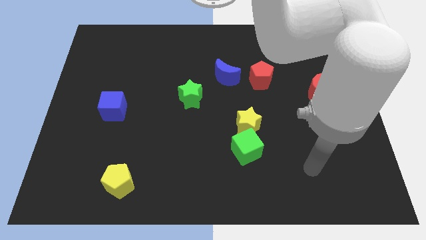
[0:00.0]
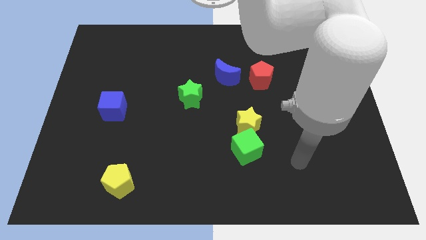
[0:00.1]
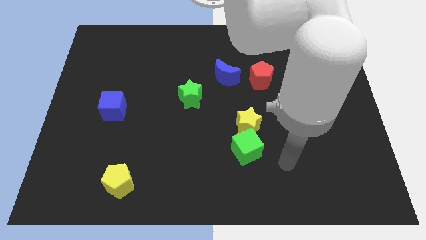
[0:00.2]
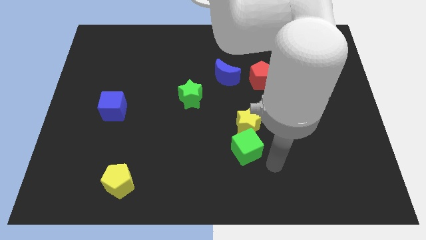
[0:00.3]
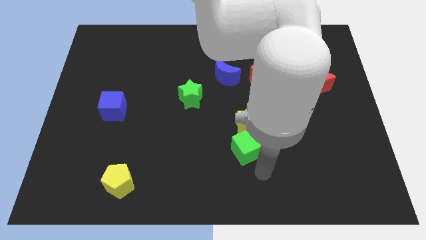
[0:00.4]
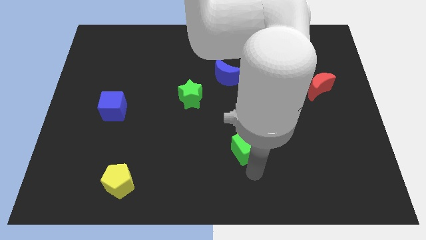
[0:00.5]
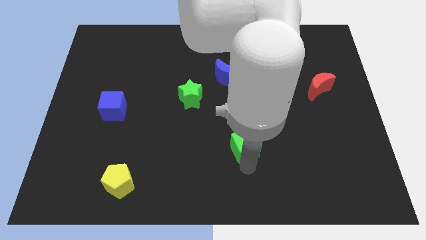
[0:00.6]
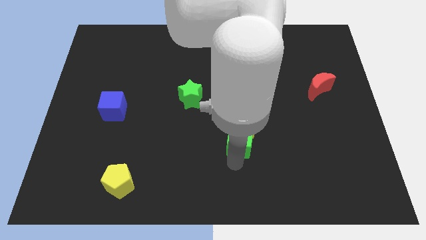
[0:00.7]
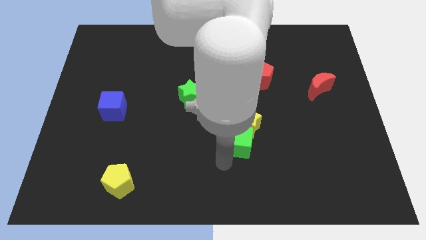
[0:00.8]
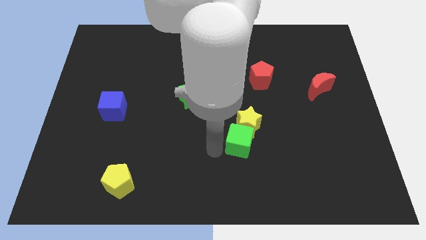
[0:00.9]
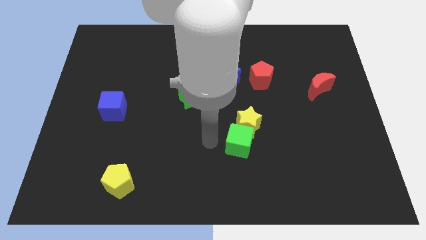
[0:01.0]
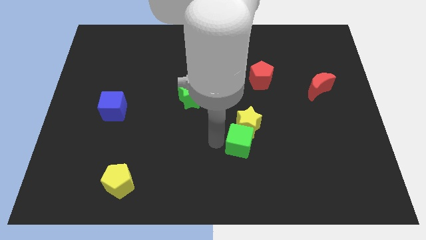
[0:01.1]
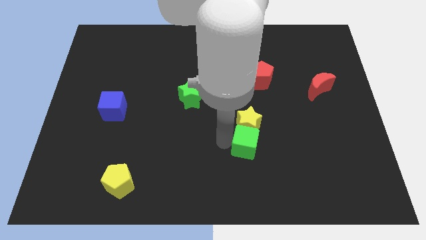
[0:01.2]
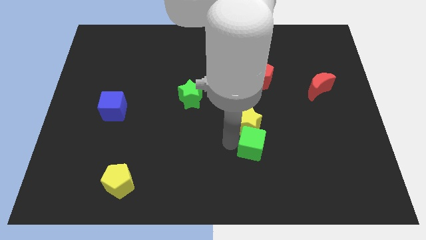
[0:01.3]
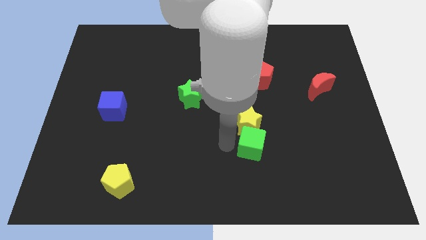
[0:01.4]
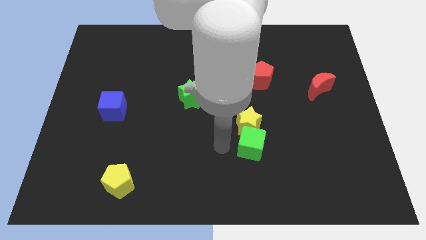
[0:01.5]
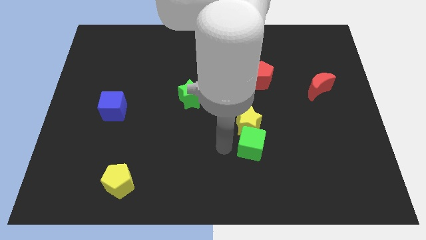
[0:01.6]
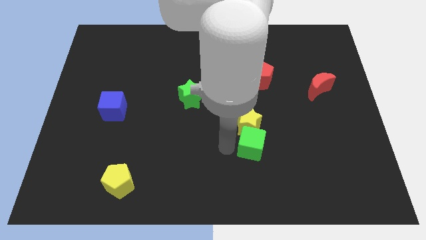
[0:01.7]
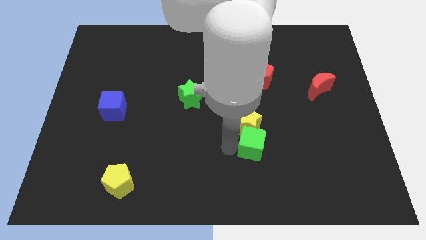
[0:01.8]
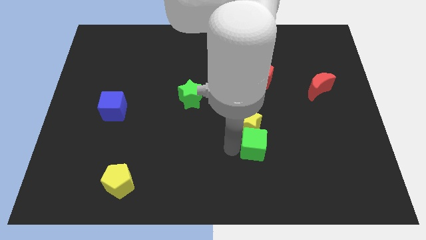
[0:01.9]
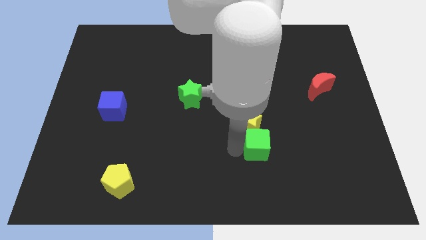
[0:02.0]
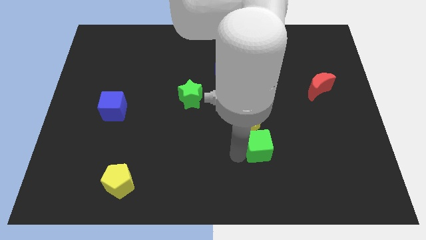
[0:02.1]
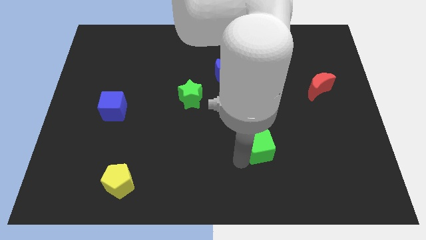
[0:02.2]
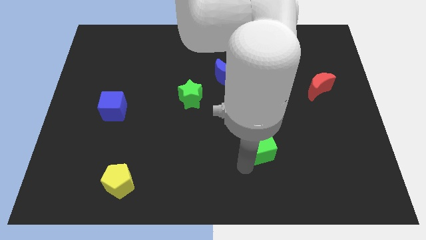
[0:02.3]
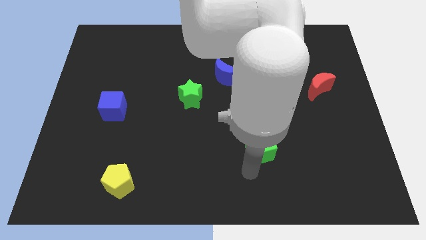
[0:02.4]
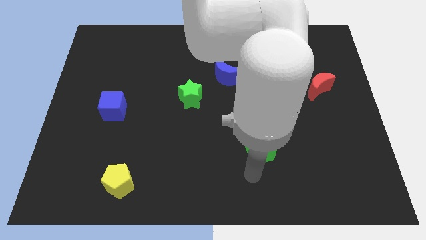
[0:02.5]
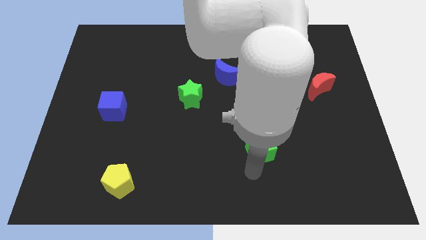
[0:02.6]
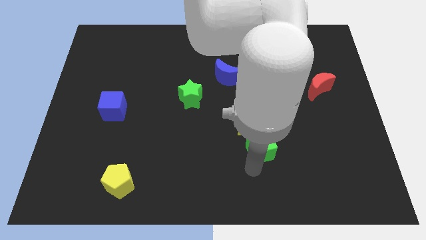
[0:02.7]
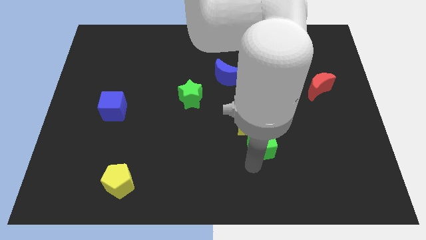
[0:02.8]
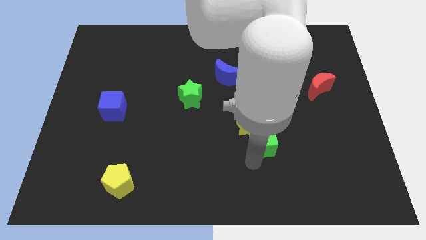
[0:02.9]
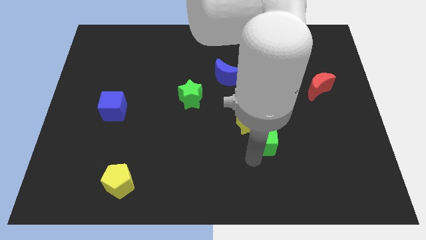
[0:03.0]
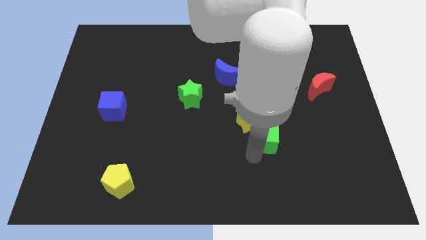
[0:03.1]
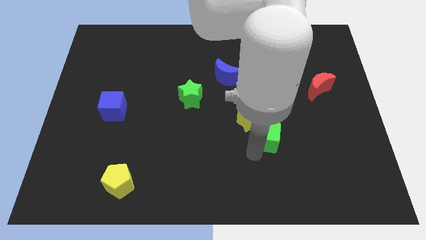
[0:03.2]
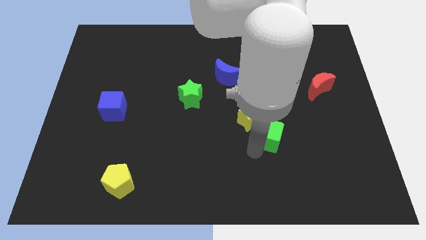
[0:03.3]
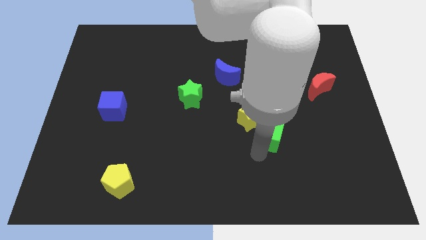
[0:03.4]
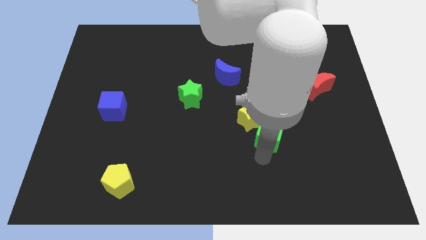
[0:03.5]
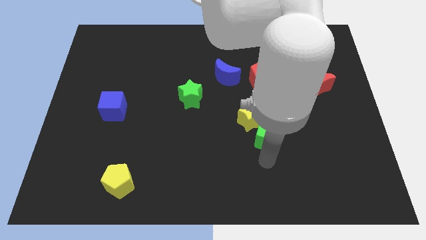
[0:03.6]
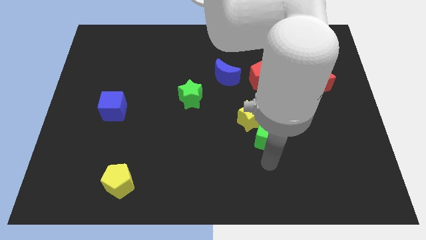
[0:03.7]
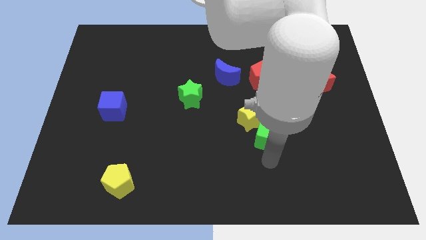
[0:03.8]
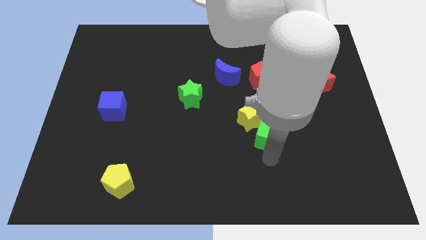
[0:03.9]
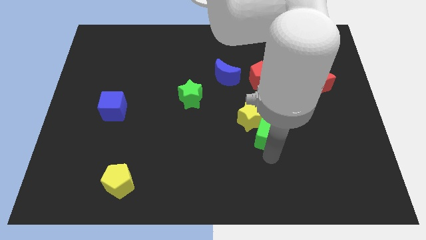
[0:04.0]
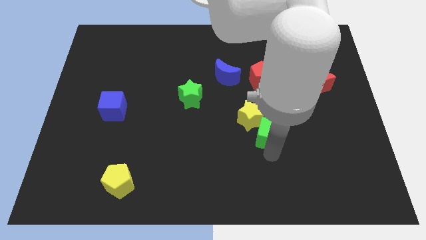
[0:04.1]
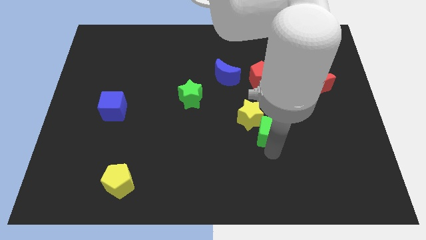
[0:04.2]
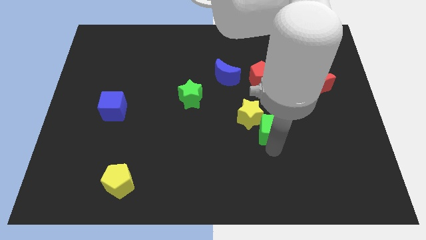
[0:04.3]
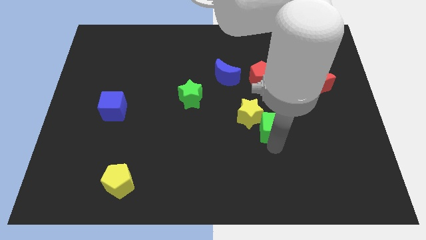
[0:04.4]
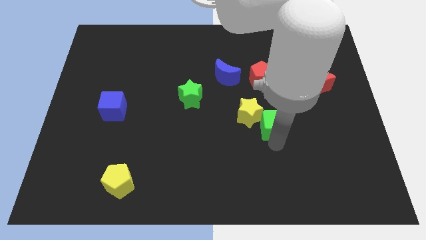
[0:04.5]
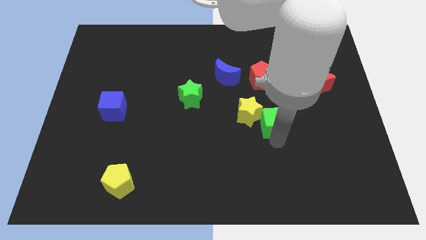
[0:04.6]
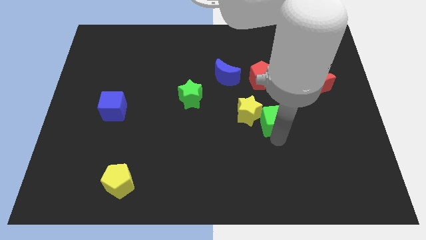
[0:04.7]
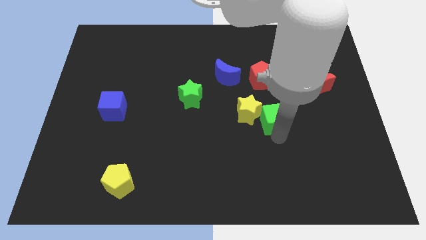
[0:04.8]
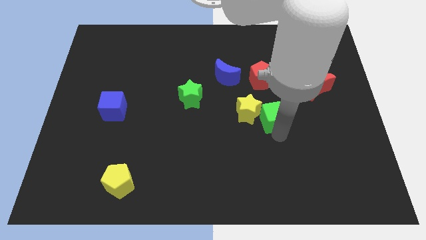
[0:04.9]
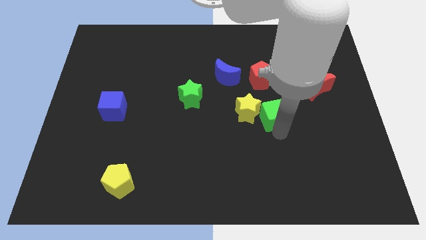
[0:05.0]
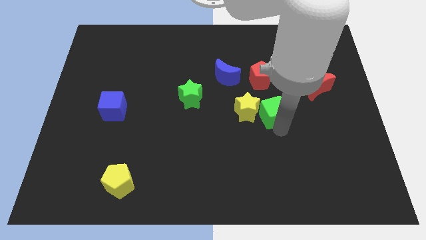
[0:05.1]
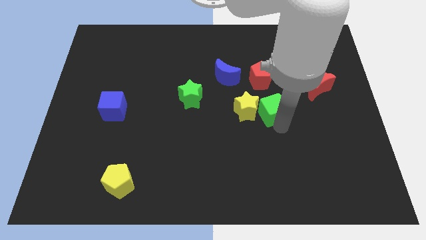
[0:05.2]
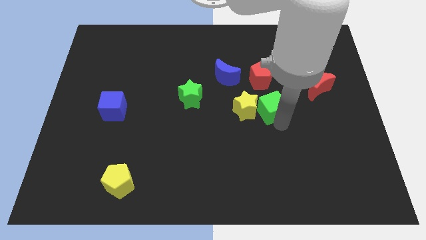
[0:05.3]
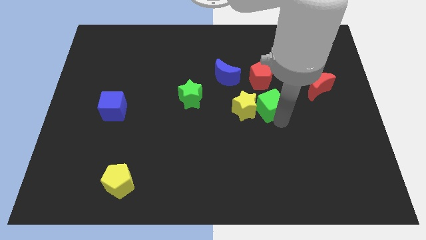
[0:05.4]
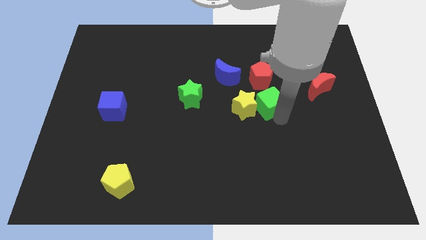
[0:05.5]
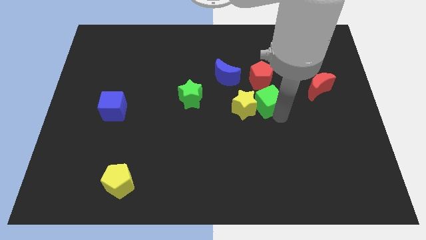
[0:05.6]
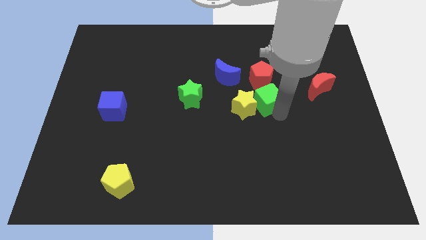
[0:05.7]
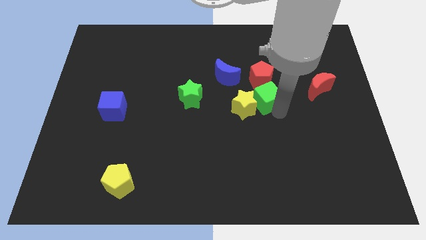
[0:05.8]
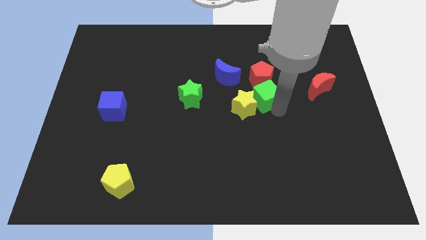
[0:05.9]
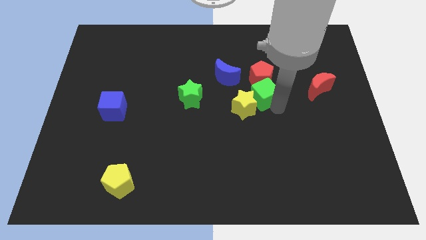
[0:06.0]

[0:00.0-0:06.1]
move the green cube to the red pentagon

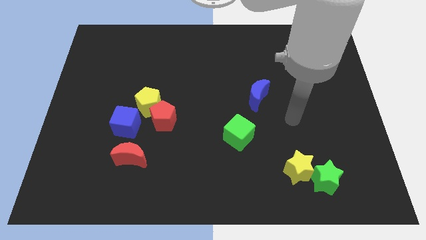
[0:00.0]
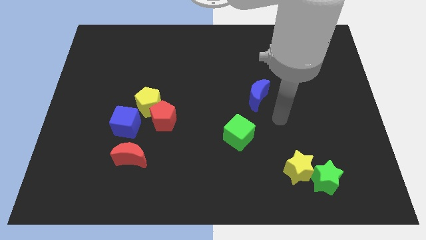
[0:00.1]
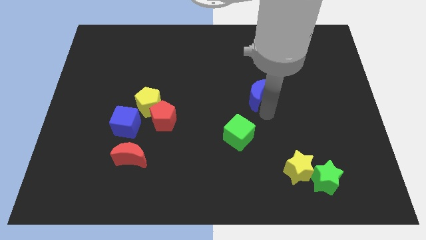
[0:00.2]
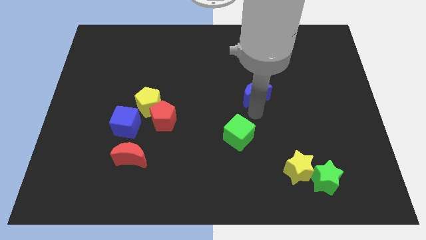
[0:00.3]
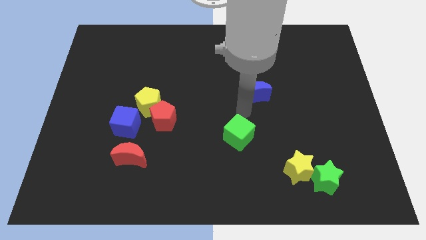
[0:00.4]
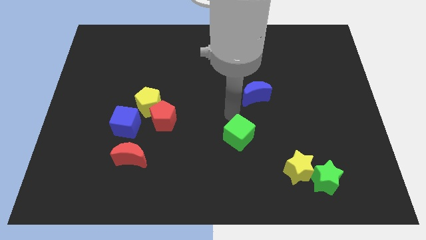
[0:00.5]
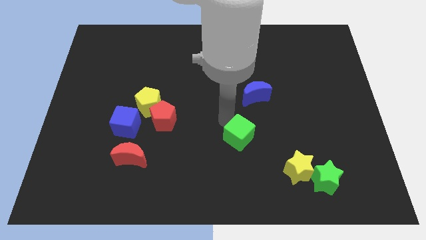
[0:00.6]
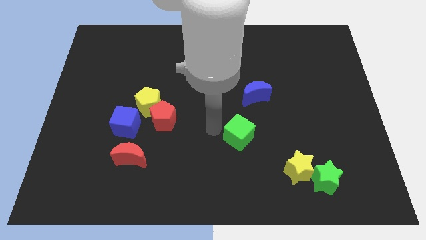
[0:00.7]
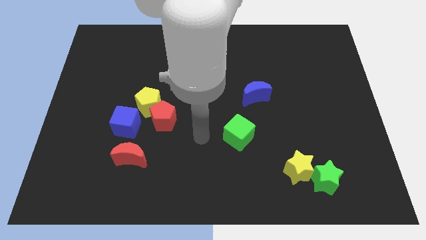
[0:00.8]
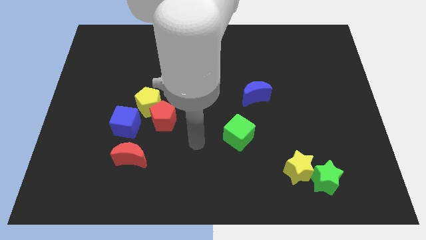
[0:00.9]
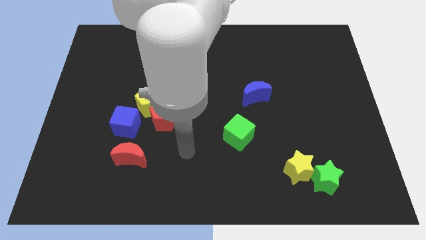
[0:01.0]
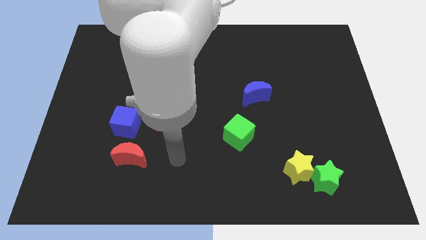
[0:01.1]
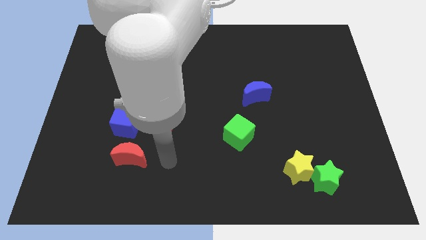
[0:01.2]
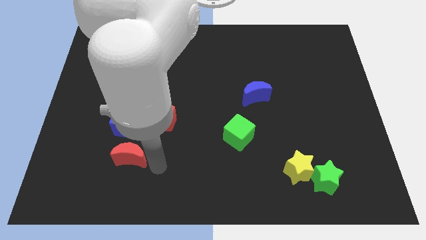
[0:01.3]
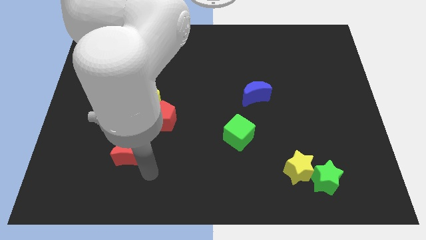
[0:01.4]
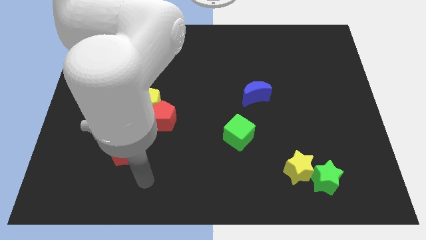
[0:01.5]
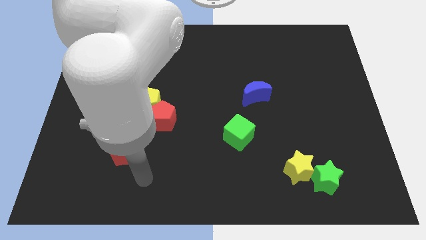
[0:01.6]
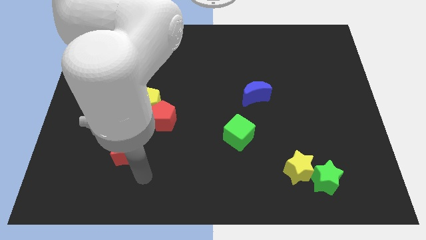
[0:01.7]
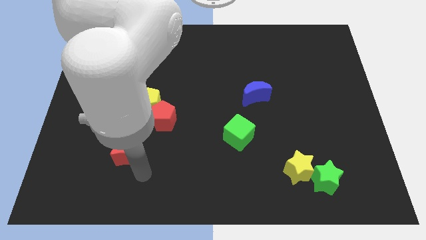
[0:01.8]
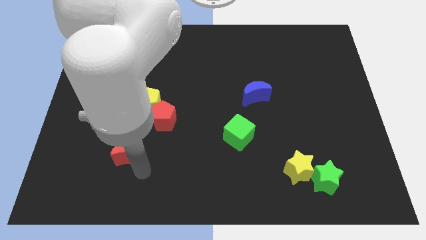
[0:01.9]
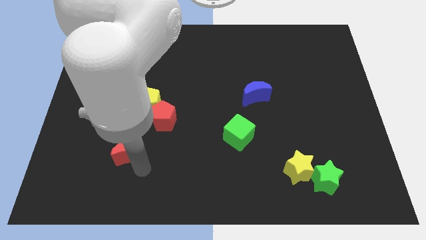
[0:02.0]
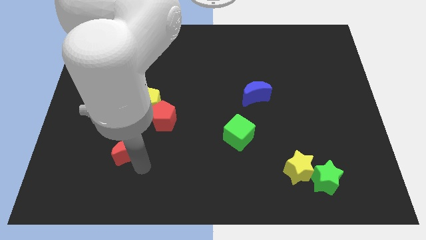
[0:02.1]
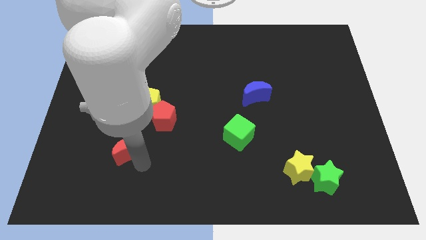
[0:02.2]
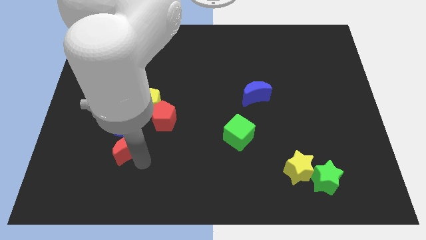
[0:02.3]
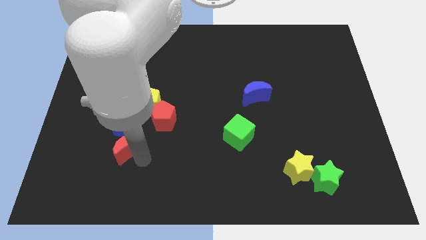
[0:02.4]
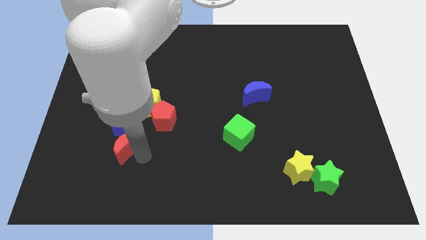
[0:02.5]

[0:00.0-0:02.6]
put the red moon next to the blue cube
